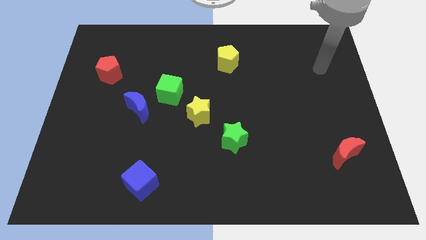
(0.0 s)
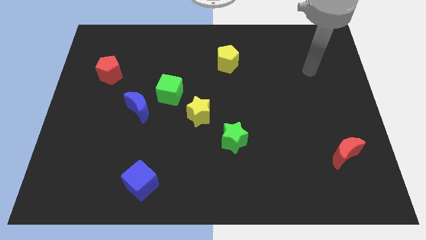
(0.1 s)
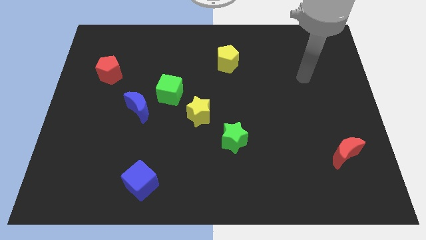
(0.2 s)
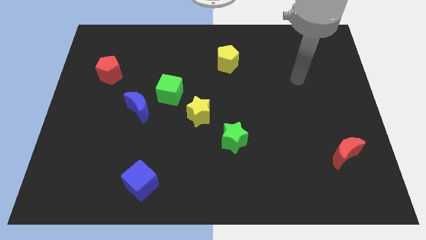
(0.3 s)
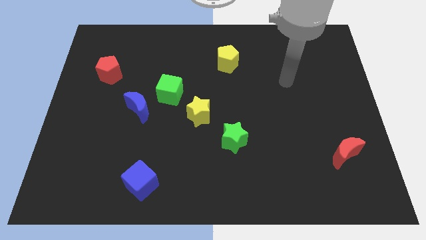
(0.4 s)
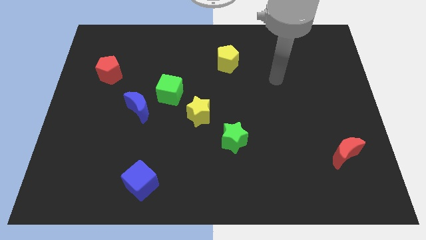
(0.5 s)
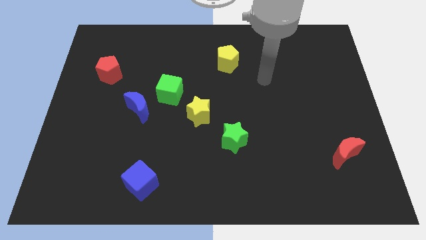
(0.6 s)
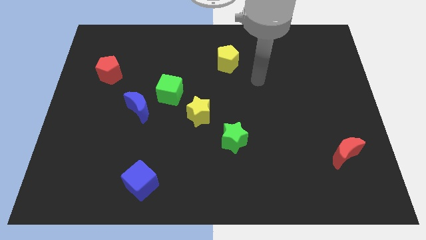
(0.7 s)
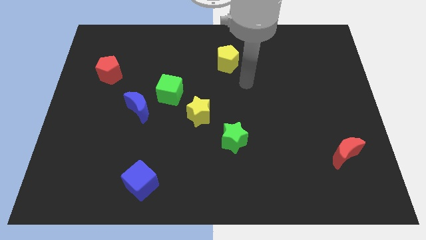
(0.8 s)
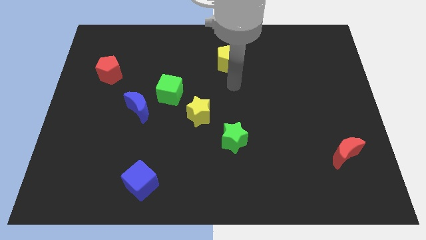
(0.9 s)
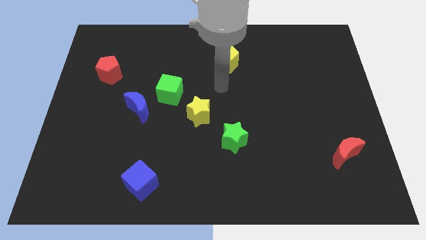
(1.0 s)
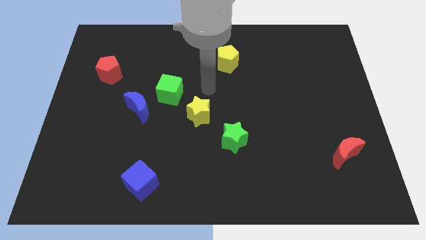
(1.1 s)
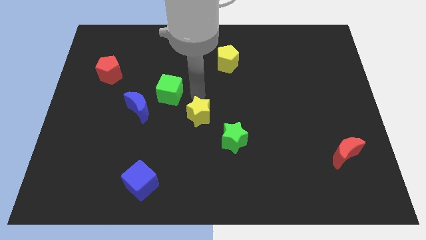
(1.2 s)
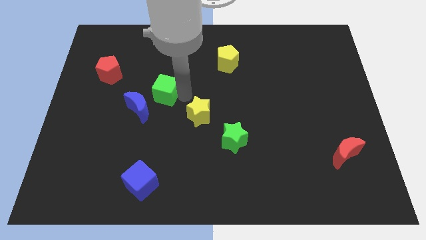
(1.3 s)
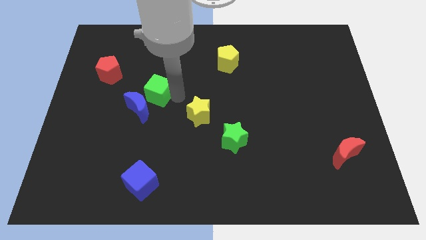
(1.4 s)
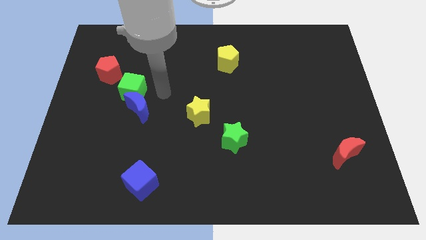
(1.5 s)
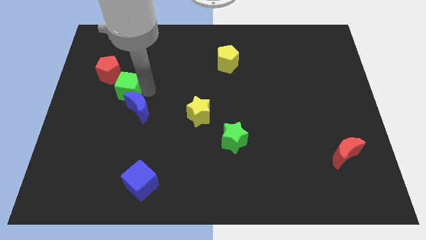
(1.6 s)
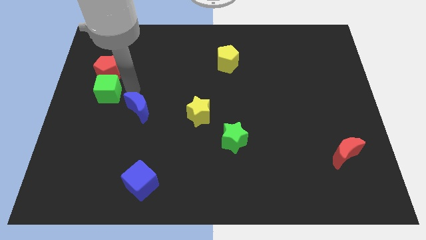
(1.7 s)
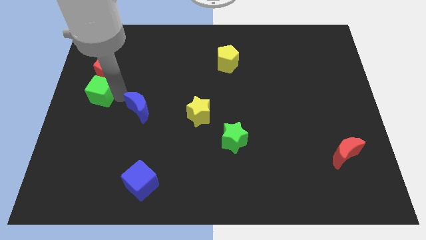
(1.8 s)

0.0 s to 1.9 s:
pull the blue moon apart from the green cube

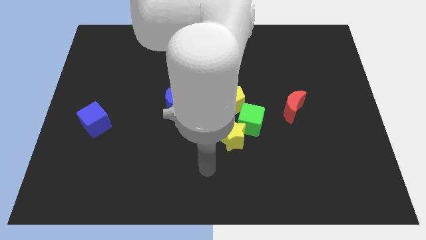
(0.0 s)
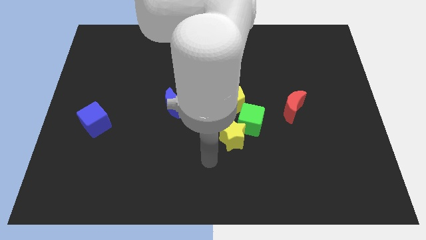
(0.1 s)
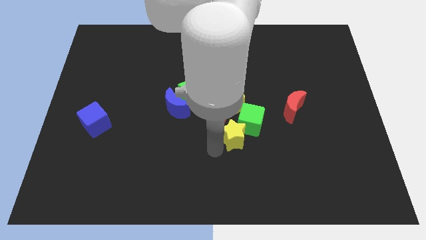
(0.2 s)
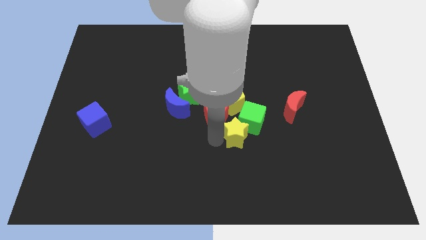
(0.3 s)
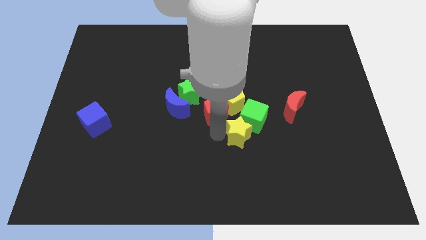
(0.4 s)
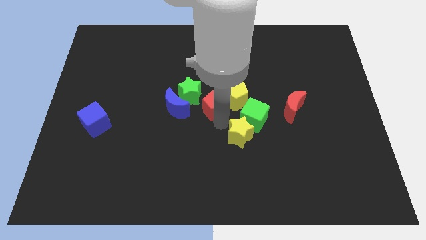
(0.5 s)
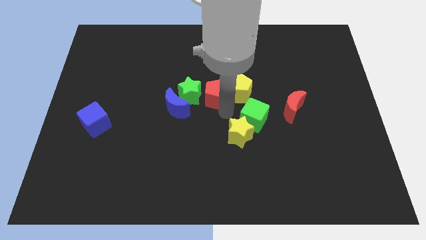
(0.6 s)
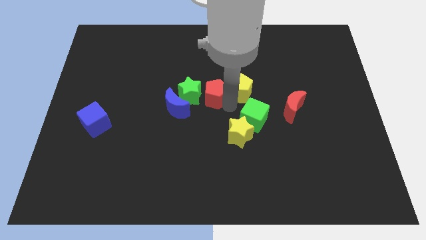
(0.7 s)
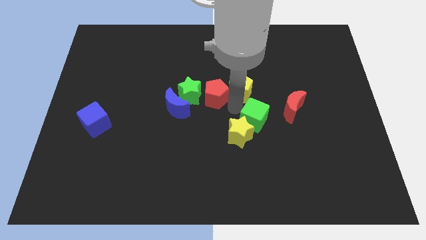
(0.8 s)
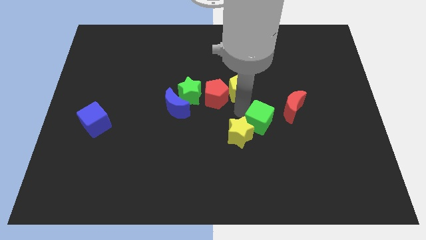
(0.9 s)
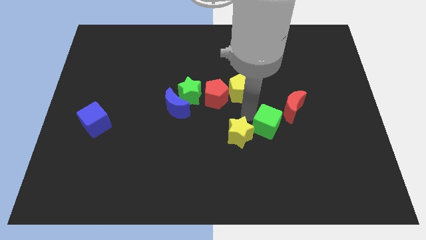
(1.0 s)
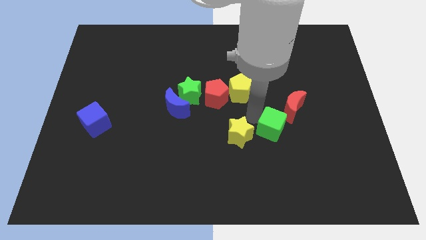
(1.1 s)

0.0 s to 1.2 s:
separate the green cube from the group of blocks

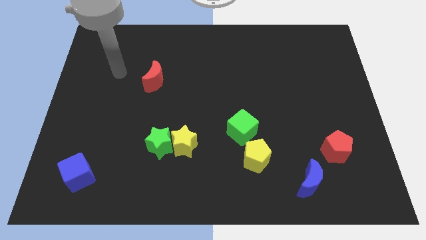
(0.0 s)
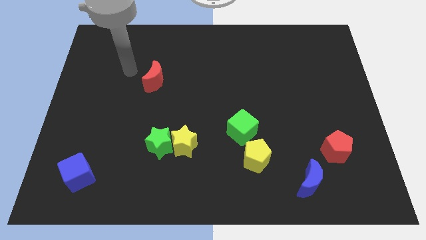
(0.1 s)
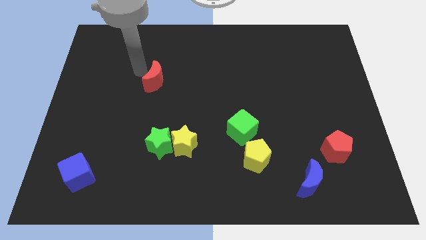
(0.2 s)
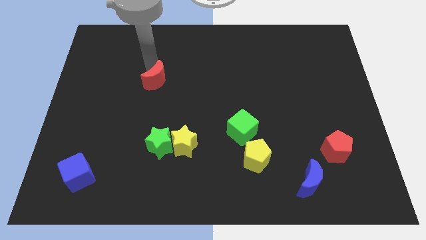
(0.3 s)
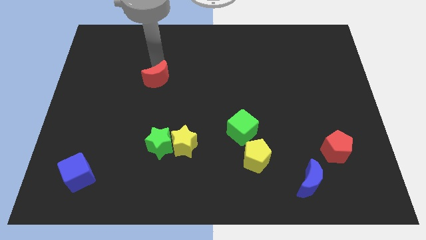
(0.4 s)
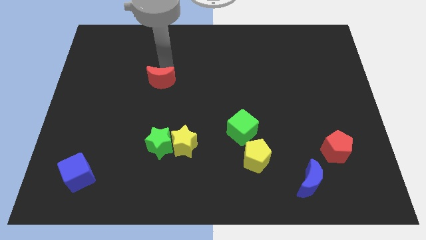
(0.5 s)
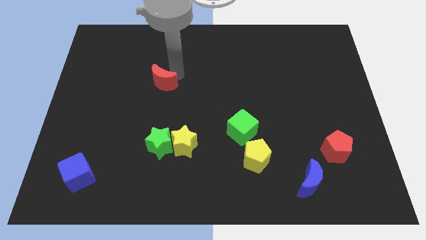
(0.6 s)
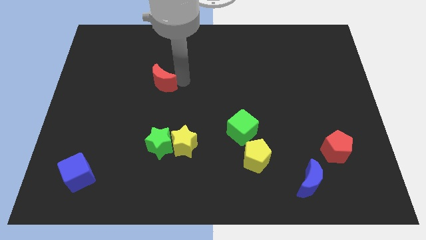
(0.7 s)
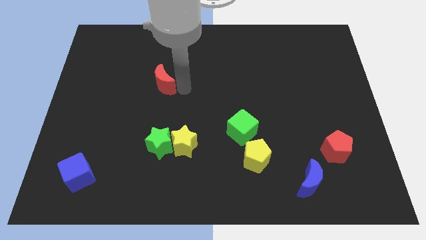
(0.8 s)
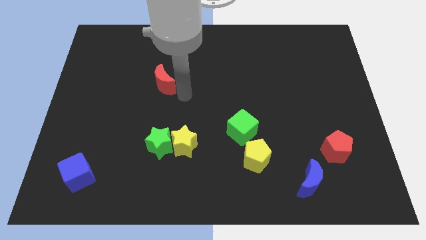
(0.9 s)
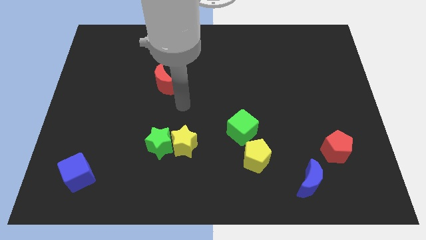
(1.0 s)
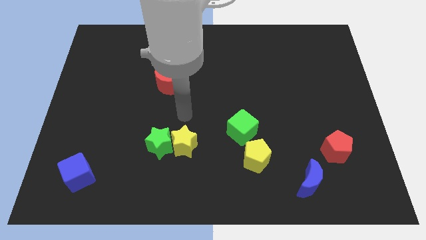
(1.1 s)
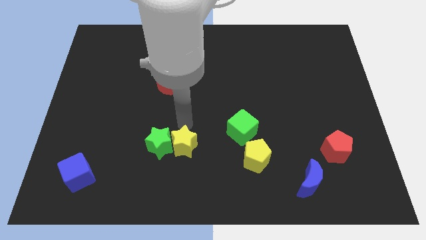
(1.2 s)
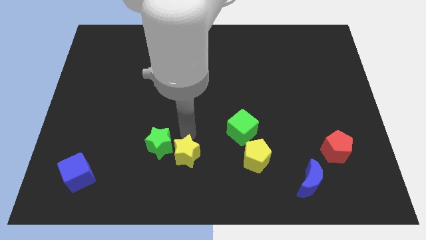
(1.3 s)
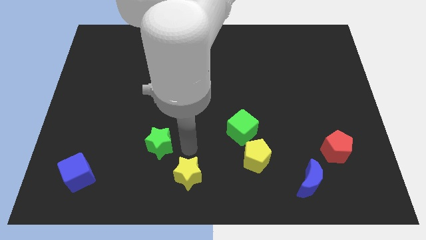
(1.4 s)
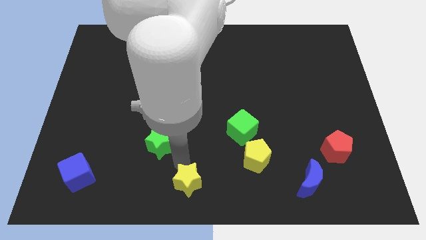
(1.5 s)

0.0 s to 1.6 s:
separate the green star from the yellow star

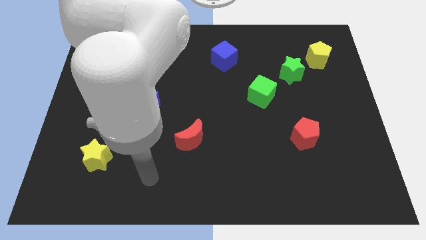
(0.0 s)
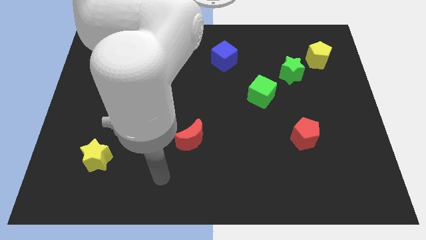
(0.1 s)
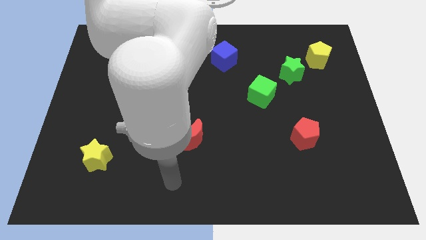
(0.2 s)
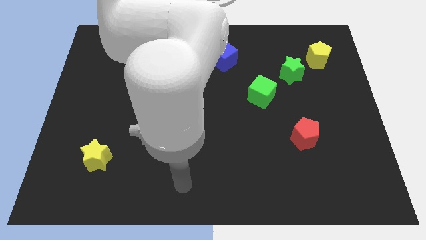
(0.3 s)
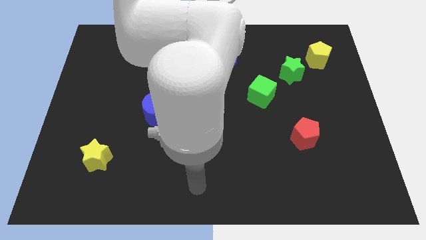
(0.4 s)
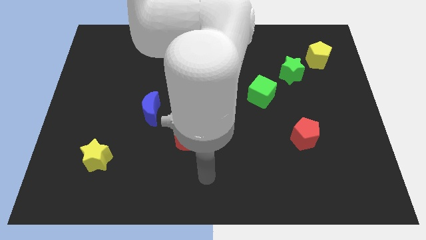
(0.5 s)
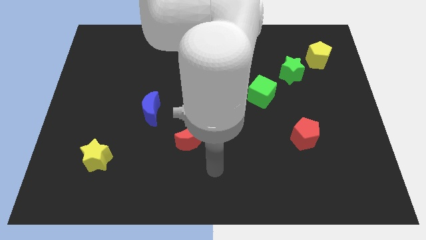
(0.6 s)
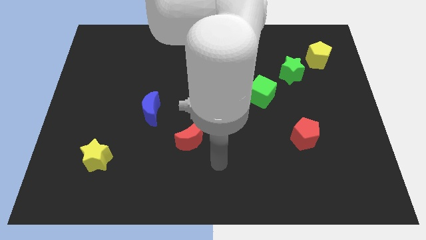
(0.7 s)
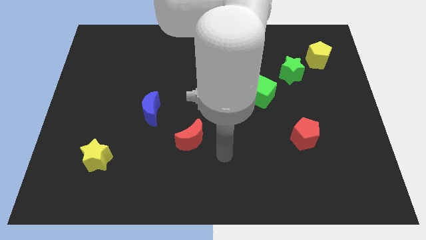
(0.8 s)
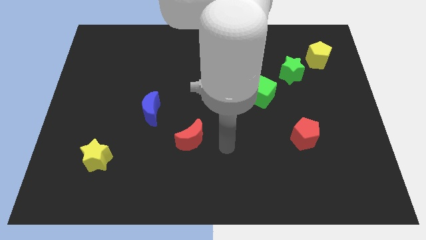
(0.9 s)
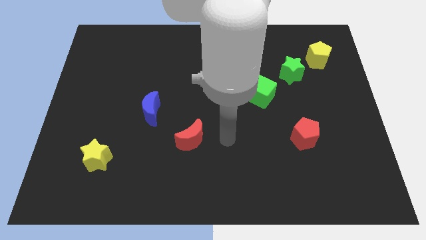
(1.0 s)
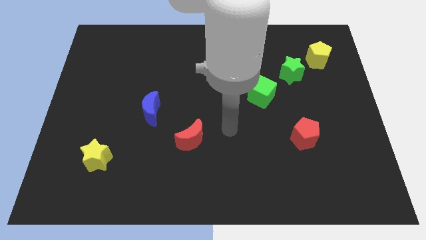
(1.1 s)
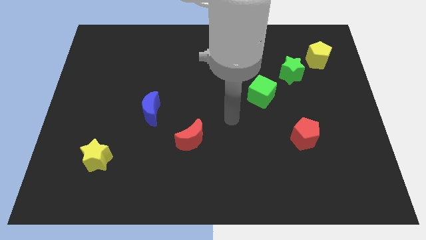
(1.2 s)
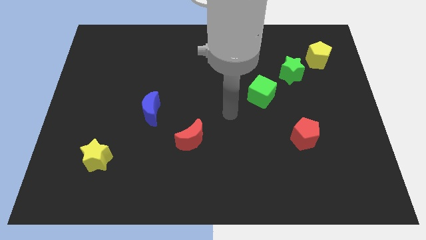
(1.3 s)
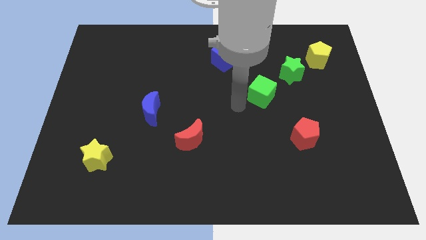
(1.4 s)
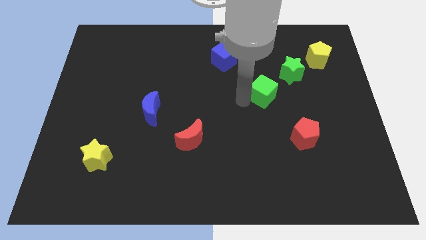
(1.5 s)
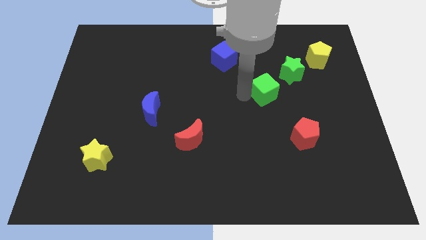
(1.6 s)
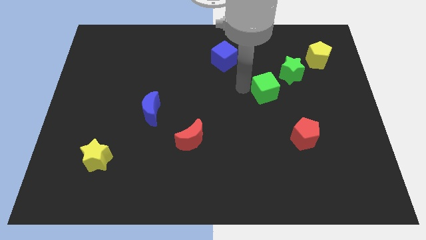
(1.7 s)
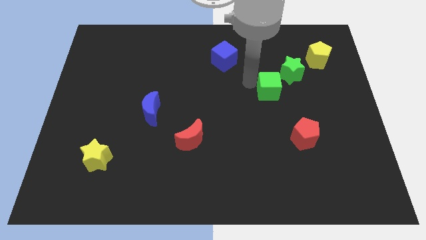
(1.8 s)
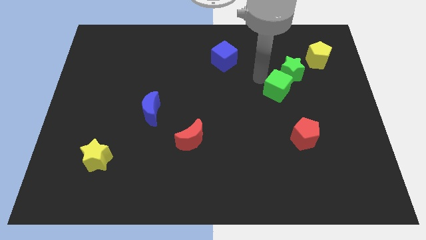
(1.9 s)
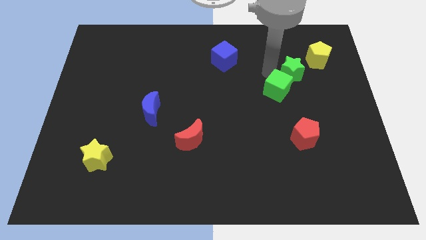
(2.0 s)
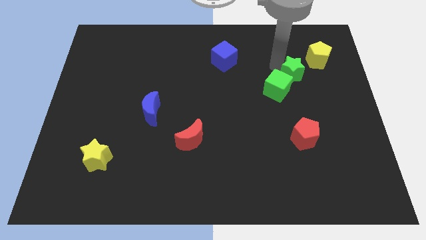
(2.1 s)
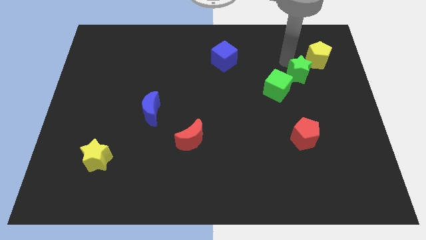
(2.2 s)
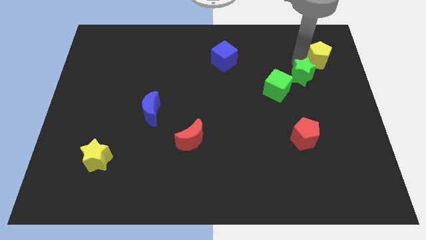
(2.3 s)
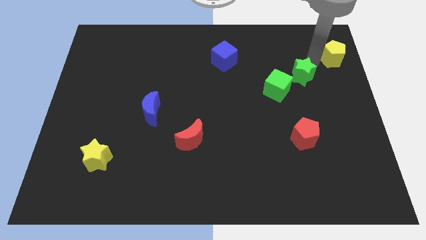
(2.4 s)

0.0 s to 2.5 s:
separate the green star from the yellow pentagon

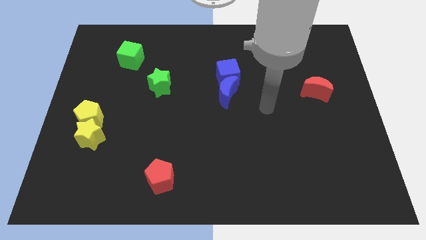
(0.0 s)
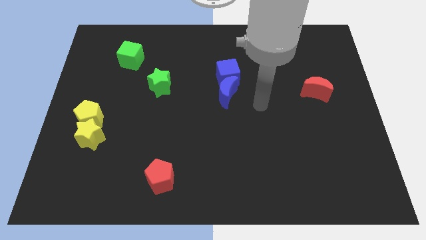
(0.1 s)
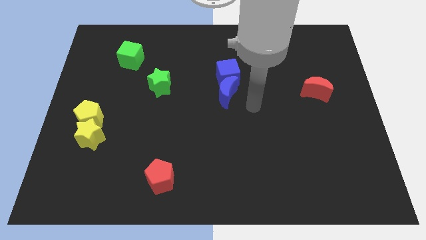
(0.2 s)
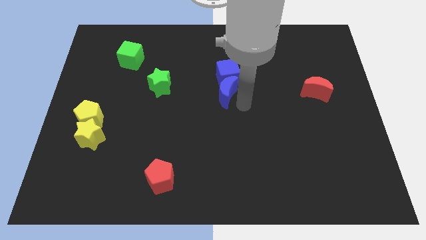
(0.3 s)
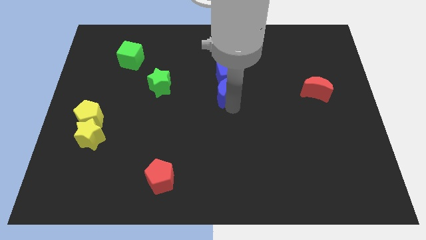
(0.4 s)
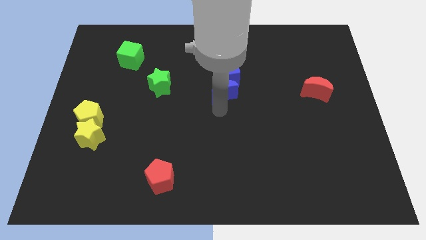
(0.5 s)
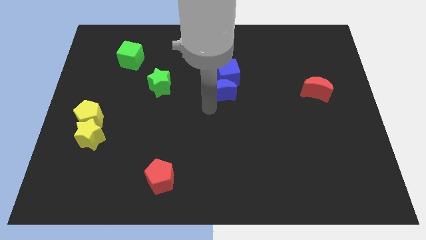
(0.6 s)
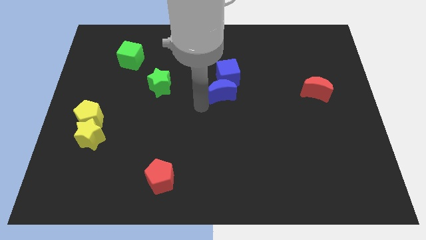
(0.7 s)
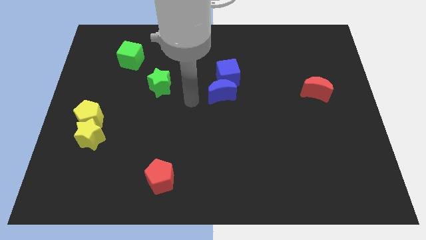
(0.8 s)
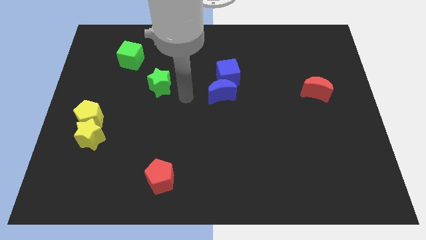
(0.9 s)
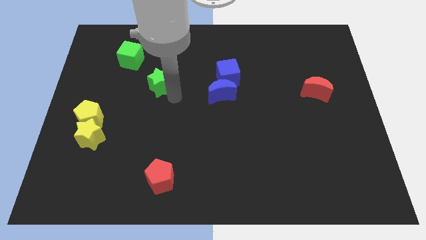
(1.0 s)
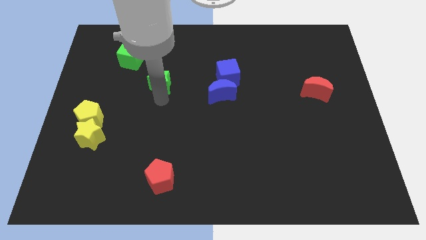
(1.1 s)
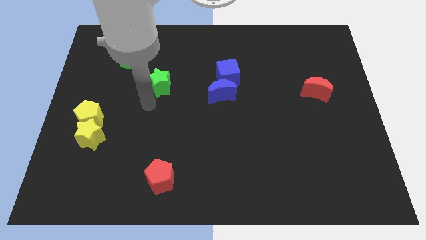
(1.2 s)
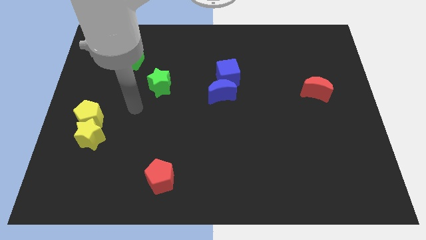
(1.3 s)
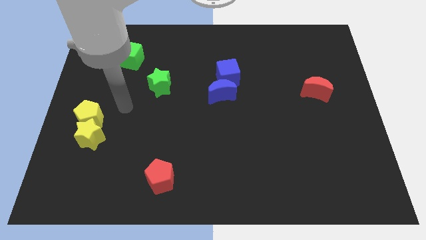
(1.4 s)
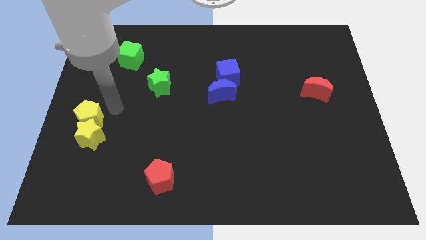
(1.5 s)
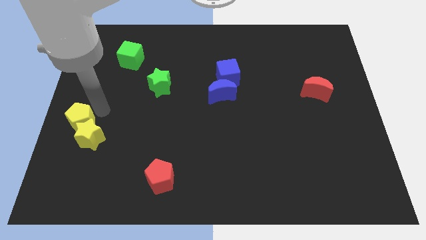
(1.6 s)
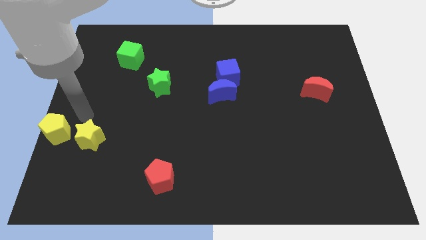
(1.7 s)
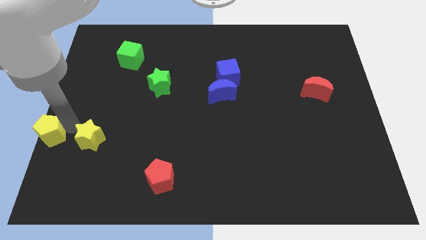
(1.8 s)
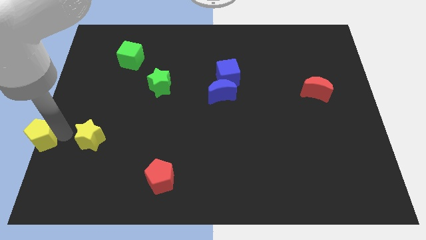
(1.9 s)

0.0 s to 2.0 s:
move the yellow star away from the yellow pentagon

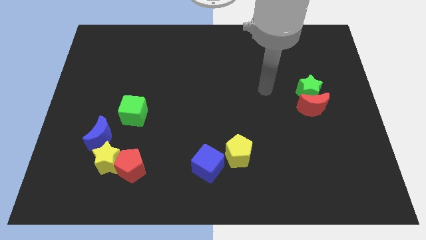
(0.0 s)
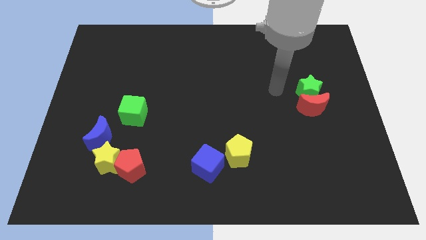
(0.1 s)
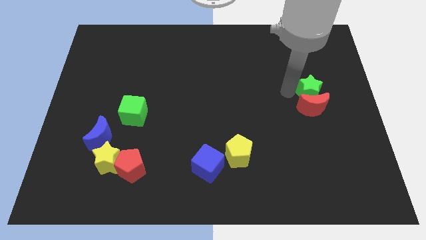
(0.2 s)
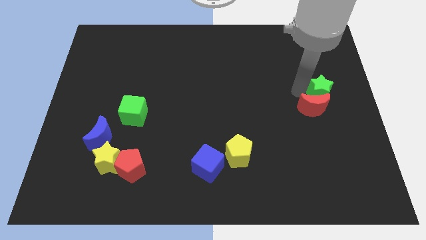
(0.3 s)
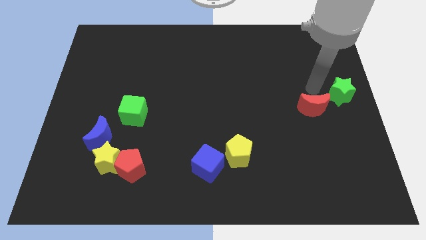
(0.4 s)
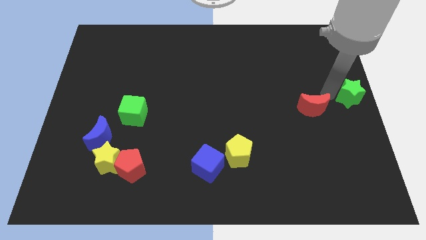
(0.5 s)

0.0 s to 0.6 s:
move the red moon away from the green star
